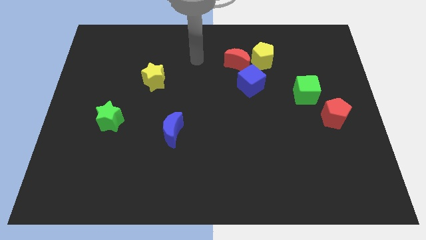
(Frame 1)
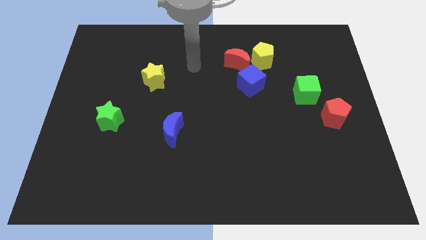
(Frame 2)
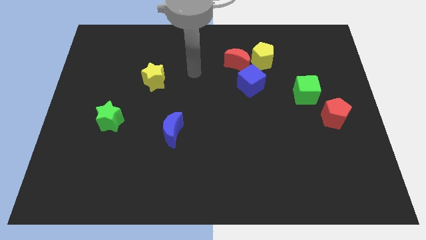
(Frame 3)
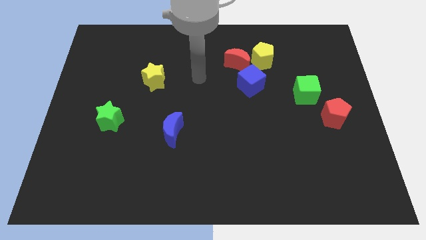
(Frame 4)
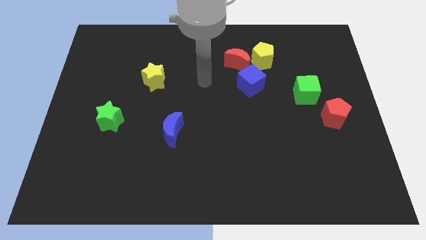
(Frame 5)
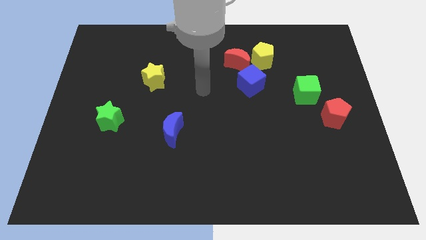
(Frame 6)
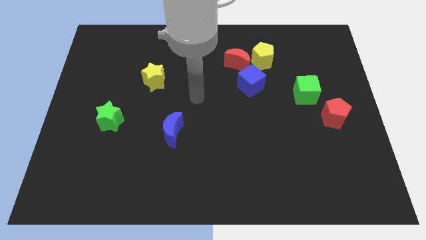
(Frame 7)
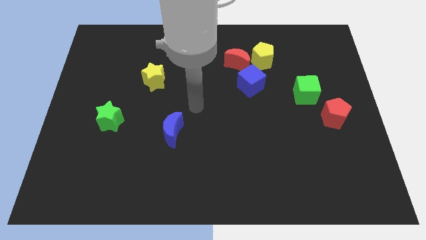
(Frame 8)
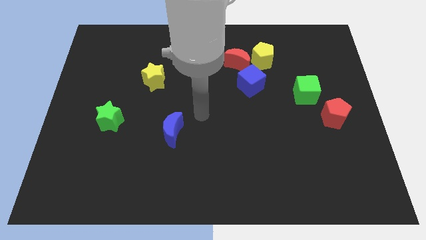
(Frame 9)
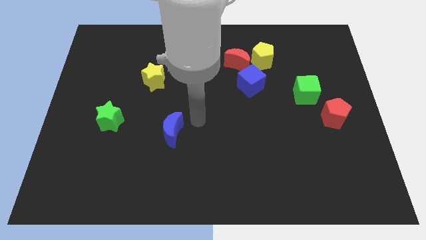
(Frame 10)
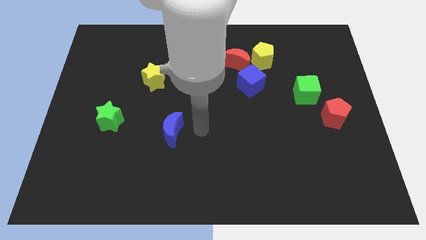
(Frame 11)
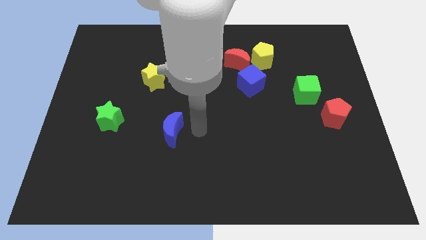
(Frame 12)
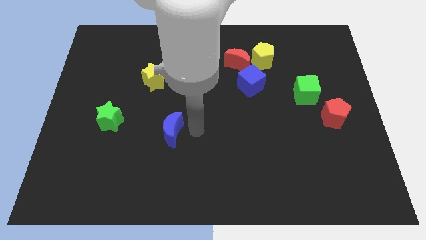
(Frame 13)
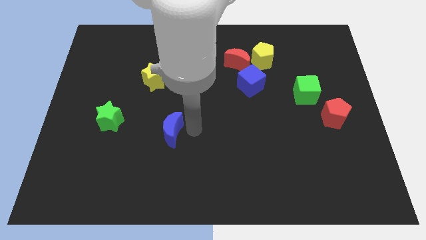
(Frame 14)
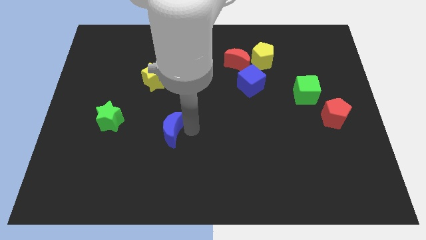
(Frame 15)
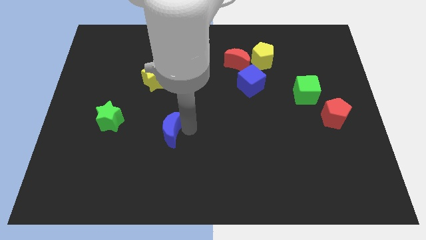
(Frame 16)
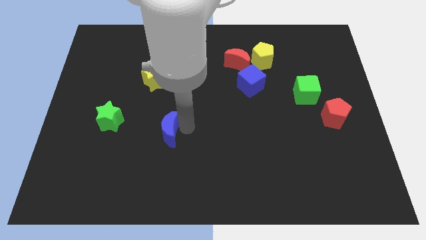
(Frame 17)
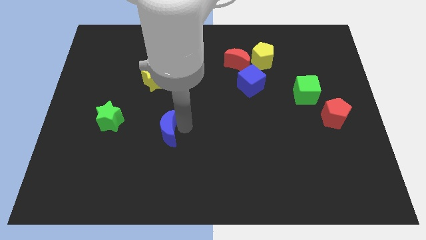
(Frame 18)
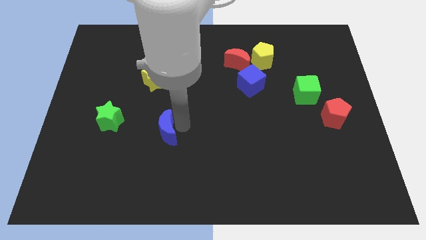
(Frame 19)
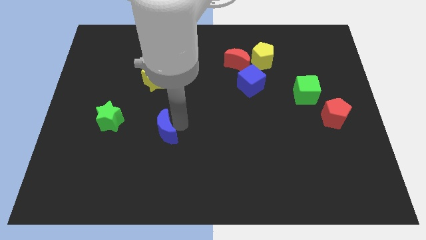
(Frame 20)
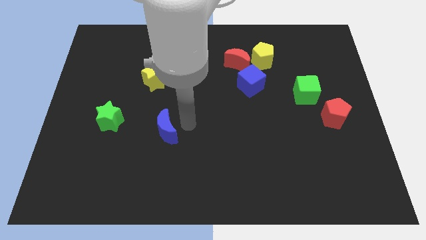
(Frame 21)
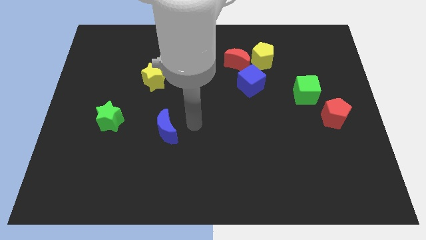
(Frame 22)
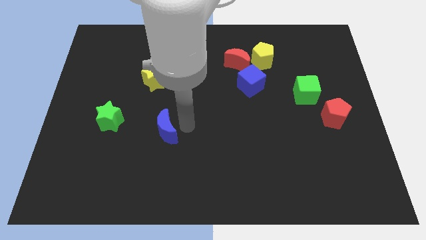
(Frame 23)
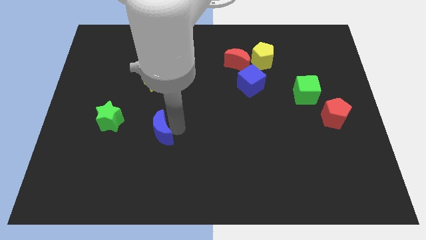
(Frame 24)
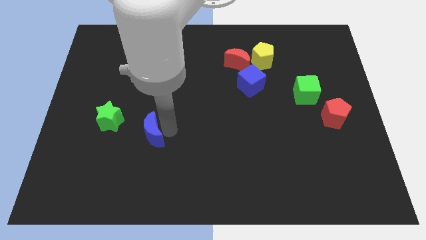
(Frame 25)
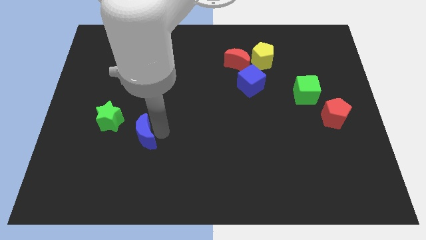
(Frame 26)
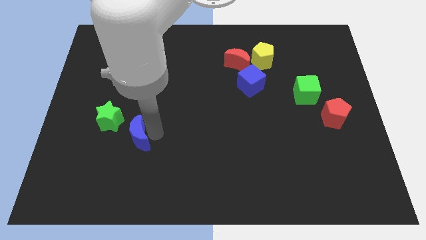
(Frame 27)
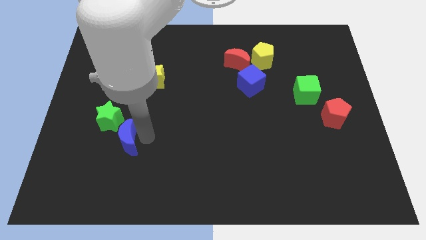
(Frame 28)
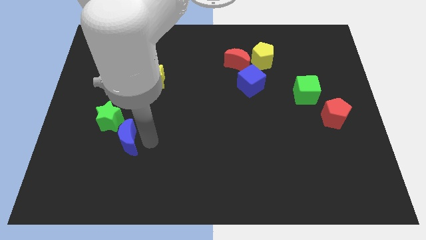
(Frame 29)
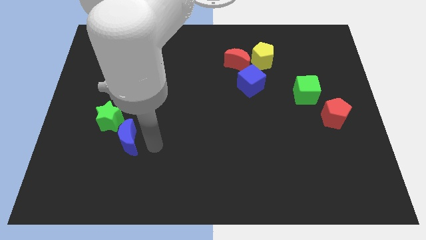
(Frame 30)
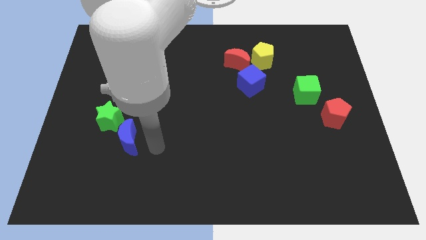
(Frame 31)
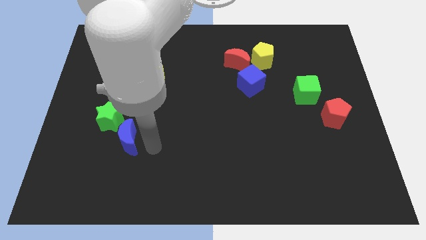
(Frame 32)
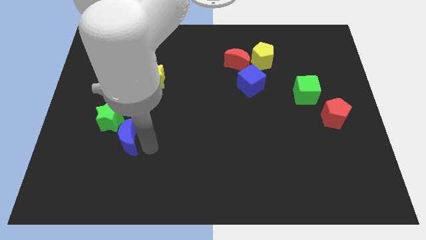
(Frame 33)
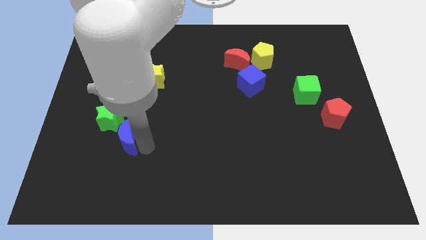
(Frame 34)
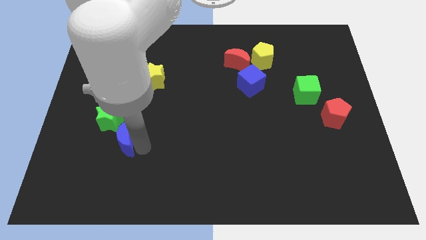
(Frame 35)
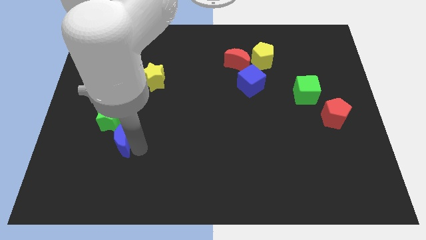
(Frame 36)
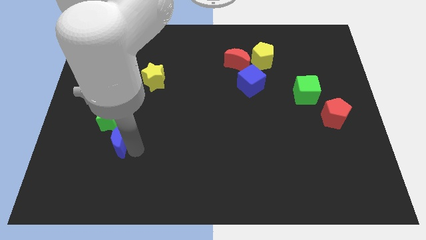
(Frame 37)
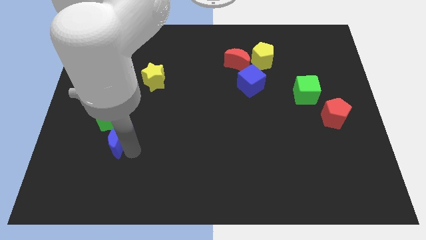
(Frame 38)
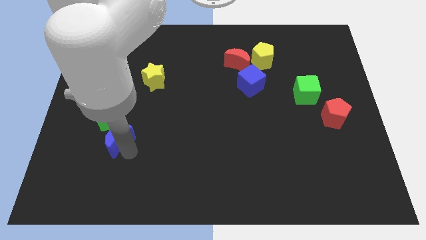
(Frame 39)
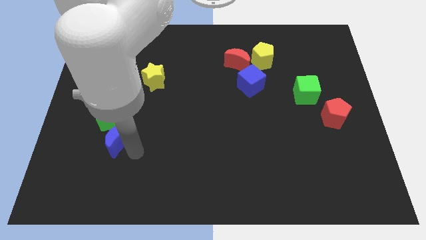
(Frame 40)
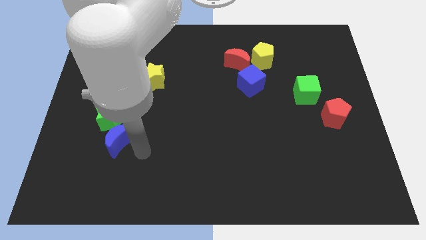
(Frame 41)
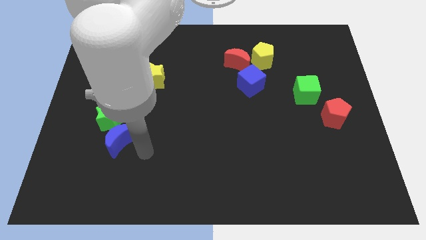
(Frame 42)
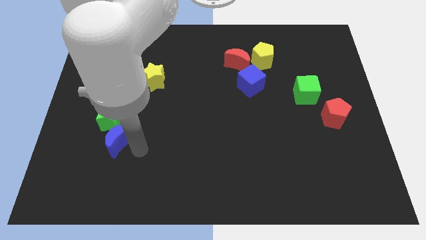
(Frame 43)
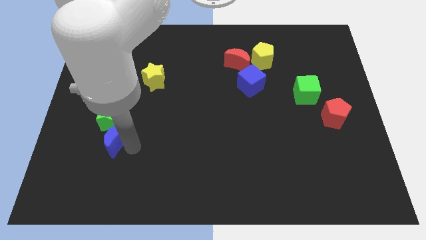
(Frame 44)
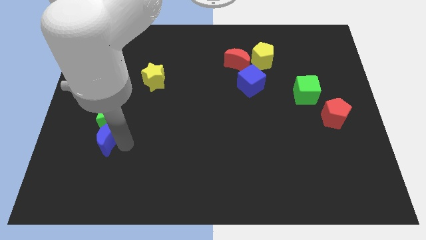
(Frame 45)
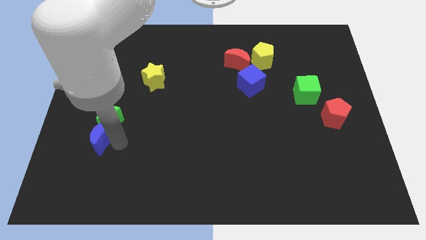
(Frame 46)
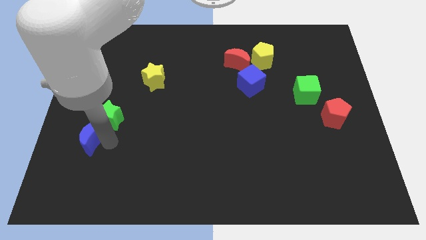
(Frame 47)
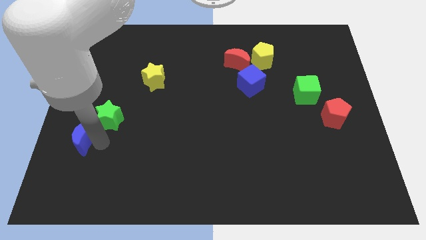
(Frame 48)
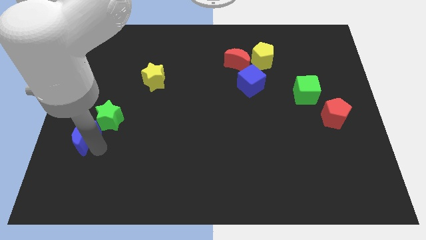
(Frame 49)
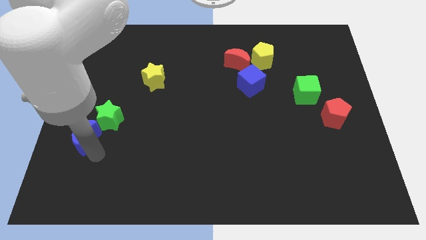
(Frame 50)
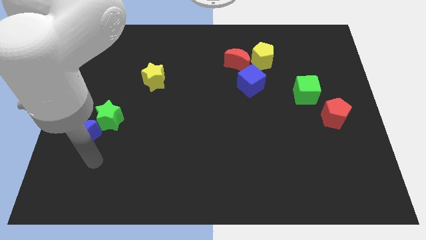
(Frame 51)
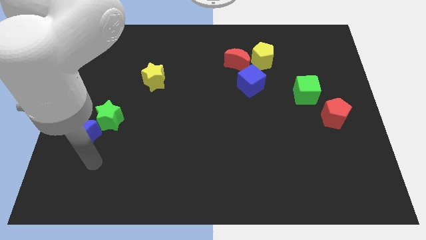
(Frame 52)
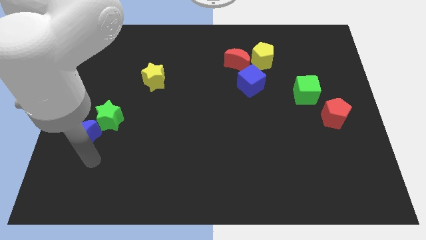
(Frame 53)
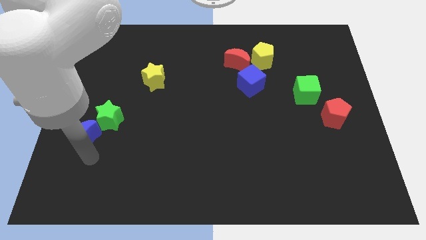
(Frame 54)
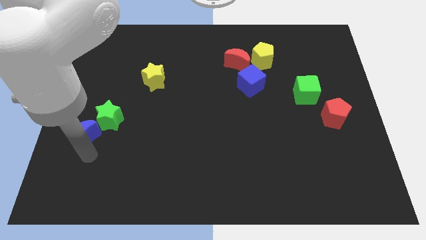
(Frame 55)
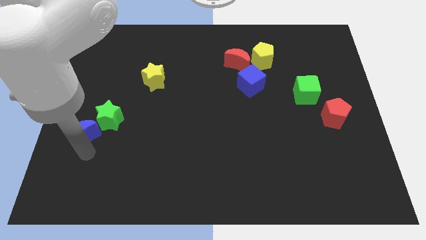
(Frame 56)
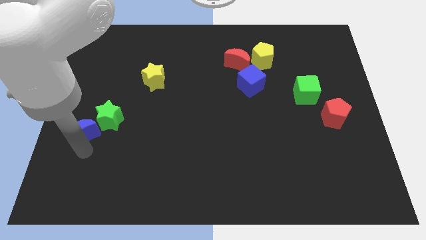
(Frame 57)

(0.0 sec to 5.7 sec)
slide the blue moon to the center left

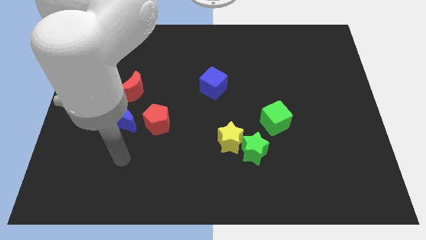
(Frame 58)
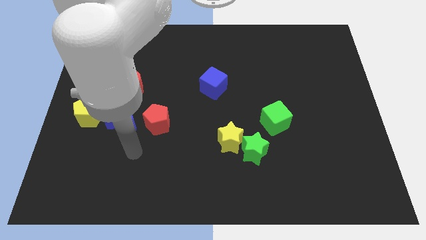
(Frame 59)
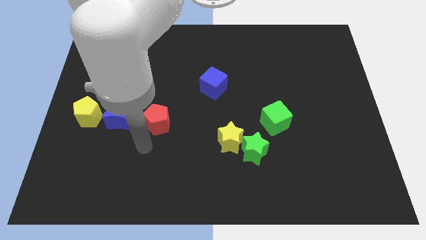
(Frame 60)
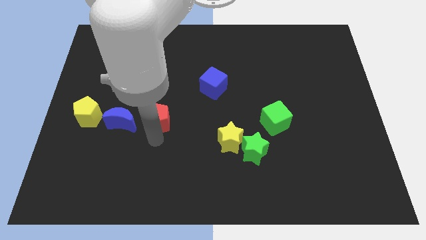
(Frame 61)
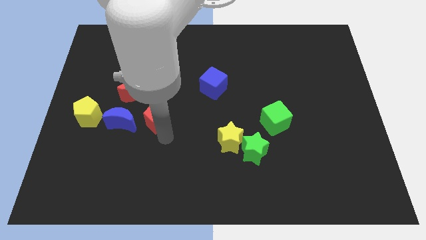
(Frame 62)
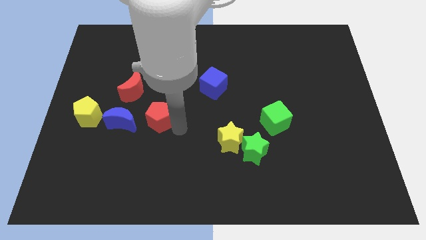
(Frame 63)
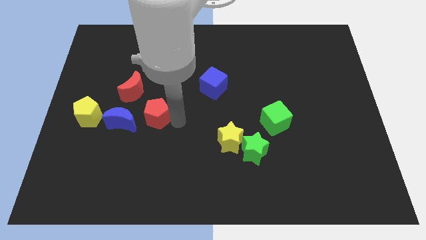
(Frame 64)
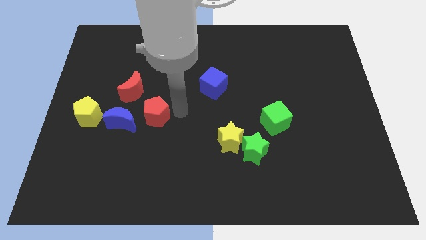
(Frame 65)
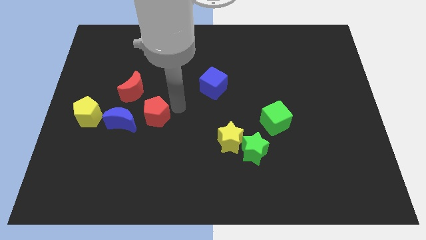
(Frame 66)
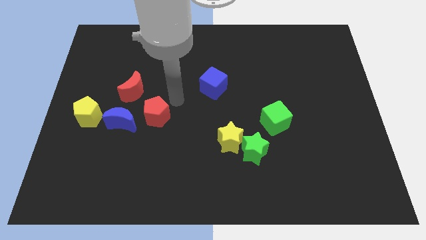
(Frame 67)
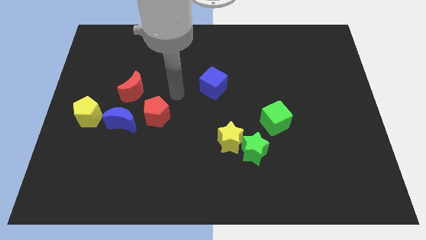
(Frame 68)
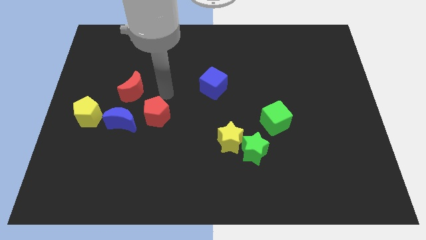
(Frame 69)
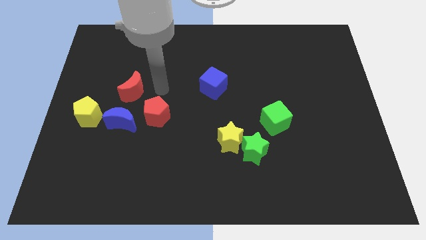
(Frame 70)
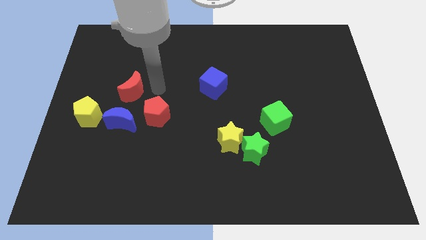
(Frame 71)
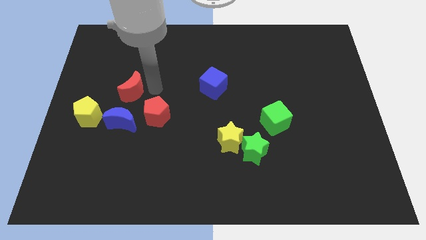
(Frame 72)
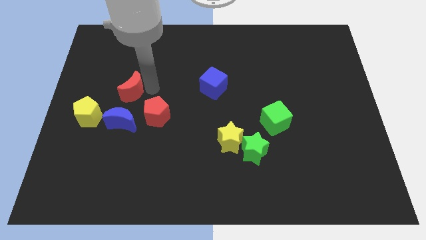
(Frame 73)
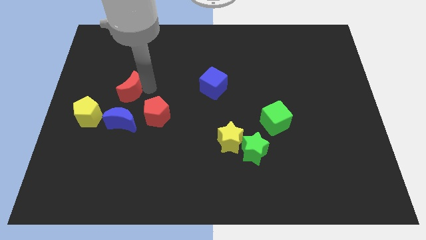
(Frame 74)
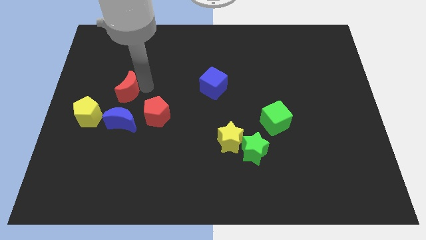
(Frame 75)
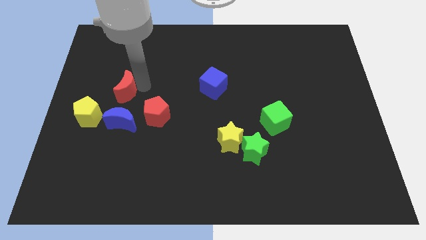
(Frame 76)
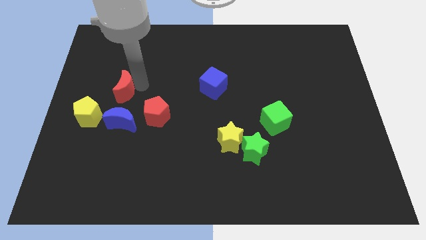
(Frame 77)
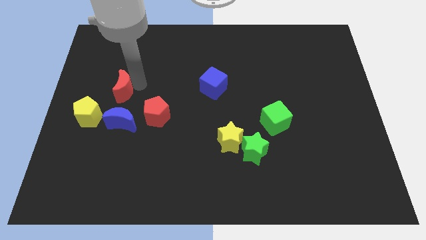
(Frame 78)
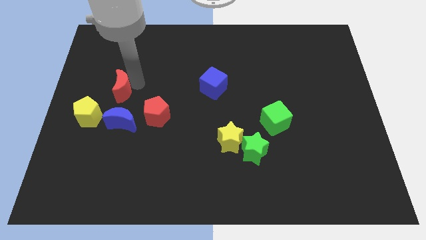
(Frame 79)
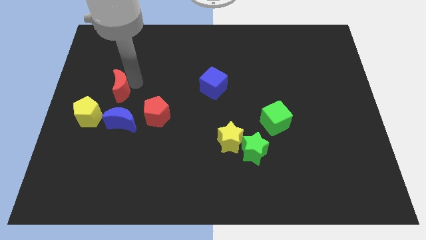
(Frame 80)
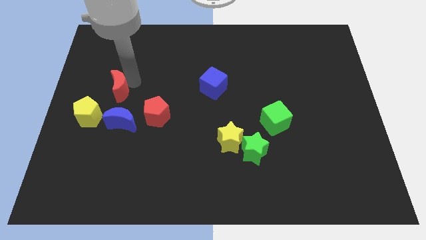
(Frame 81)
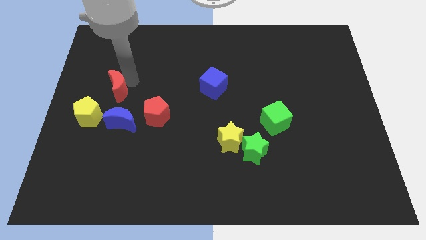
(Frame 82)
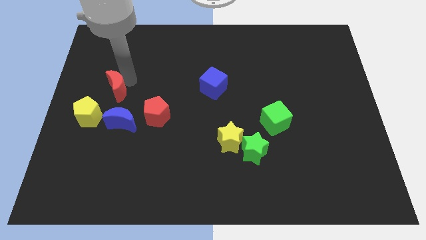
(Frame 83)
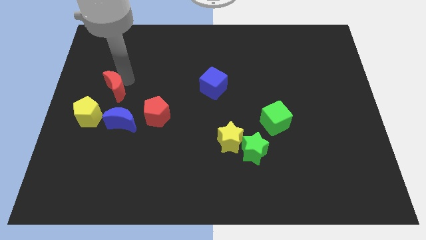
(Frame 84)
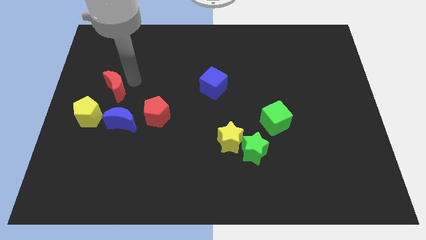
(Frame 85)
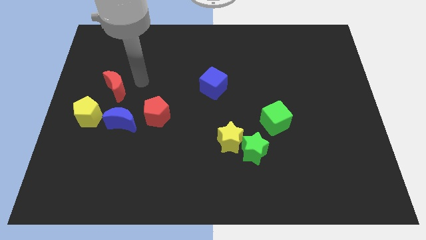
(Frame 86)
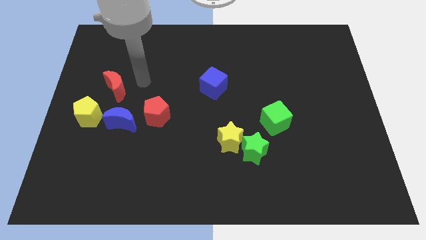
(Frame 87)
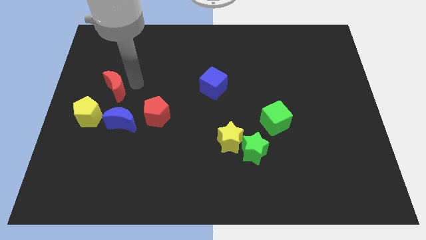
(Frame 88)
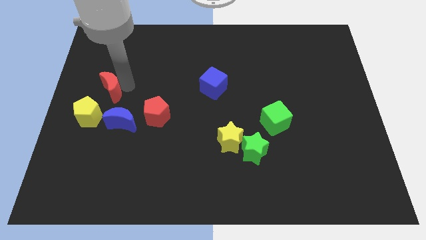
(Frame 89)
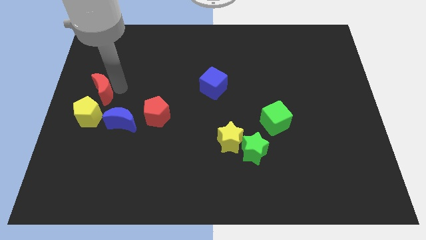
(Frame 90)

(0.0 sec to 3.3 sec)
slide the red moon to the left side
